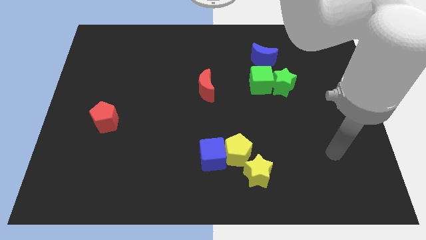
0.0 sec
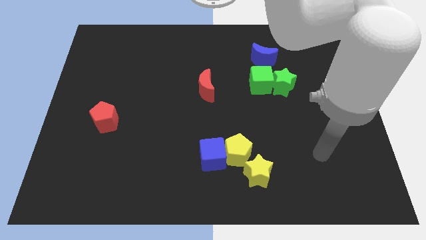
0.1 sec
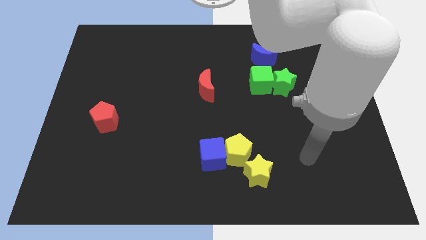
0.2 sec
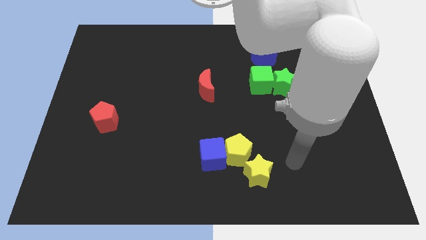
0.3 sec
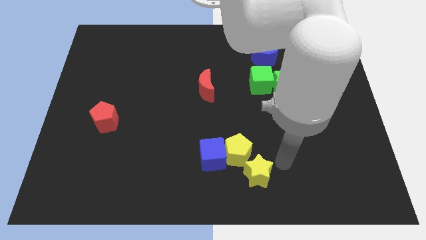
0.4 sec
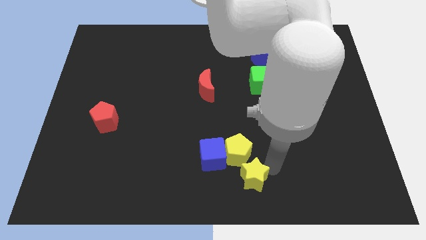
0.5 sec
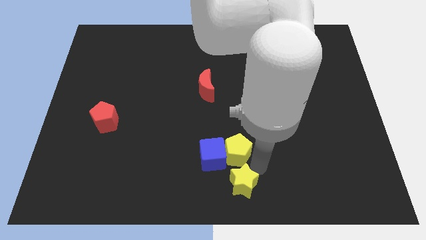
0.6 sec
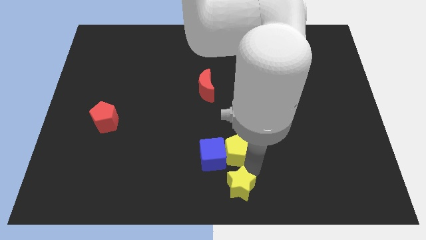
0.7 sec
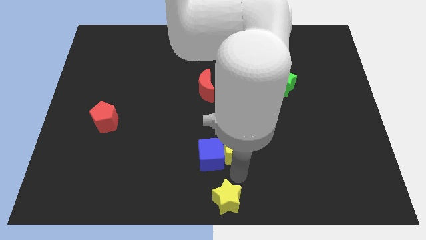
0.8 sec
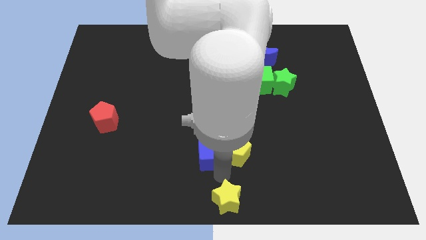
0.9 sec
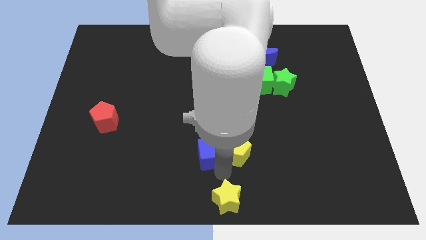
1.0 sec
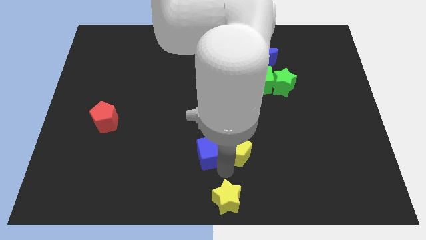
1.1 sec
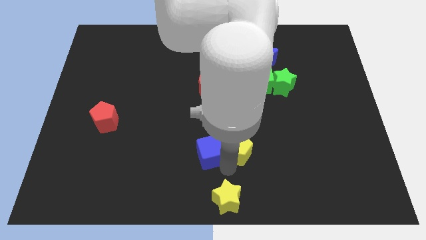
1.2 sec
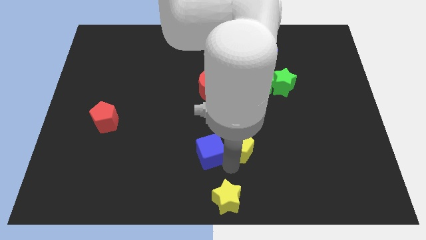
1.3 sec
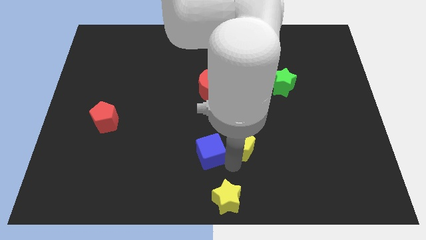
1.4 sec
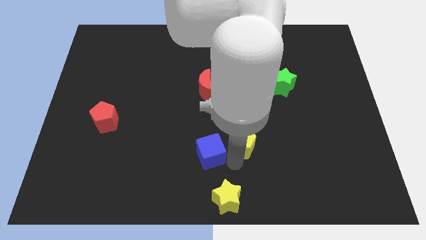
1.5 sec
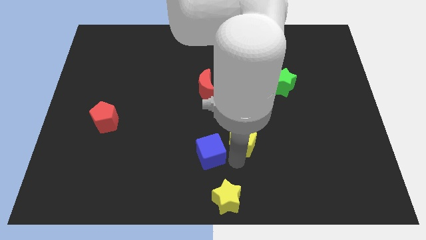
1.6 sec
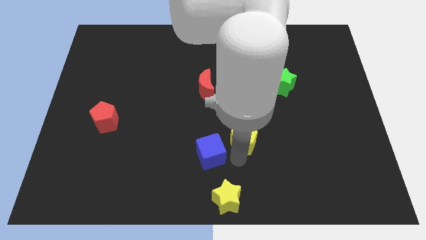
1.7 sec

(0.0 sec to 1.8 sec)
pull the yellow pentagon apart from the blue cube and yellow star

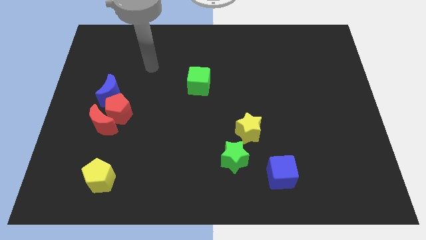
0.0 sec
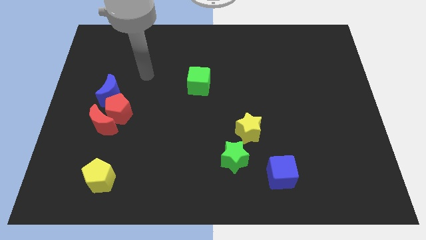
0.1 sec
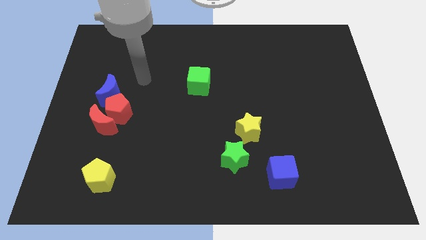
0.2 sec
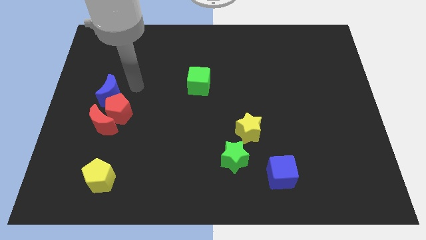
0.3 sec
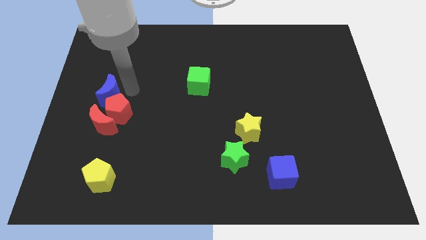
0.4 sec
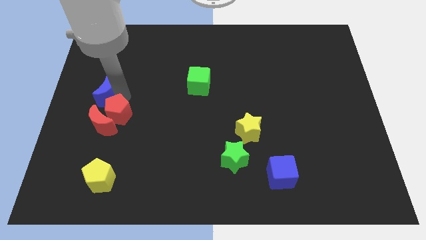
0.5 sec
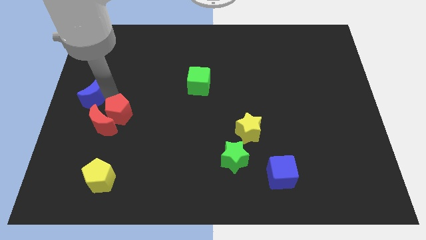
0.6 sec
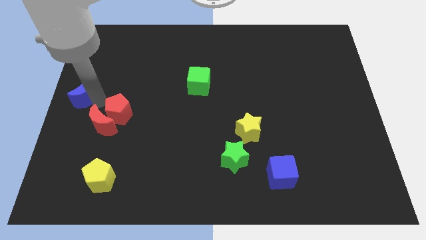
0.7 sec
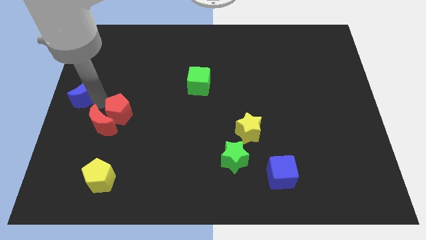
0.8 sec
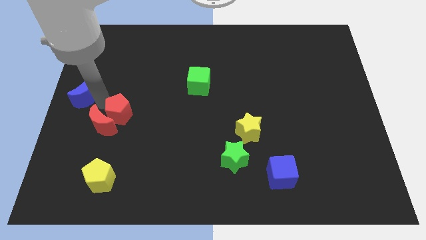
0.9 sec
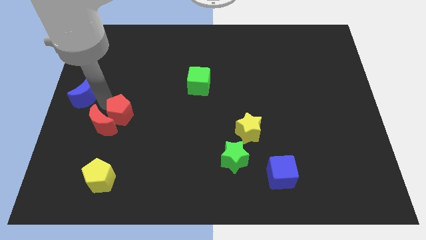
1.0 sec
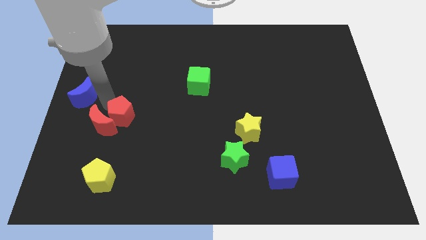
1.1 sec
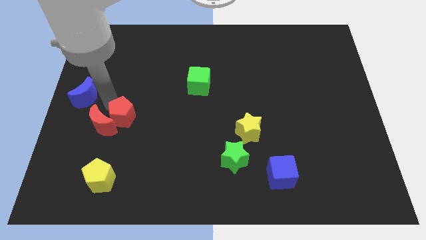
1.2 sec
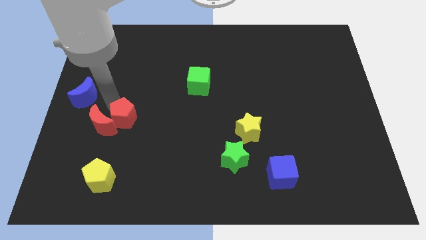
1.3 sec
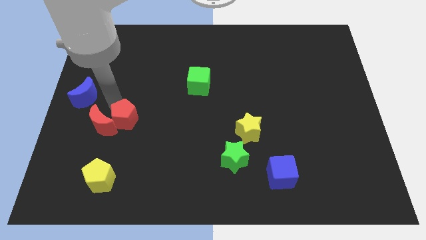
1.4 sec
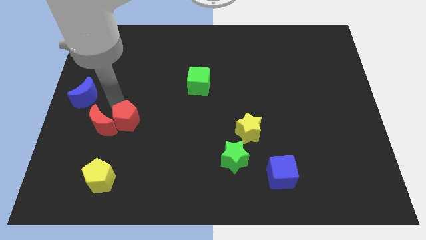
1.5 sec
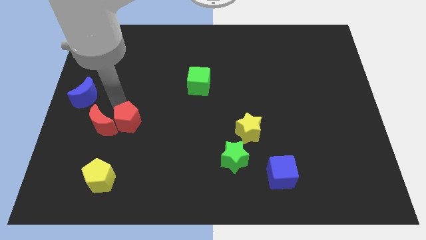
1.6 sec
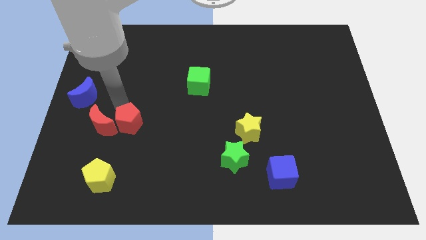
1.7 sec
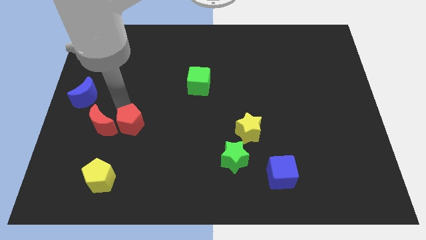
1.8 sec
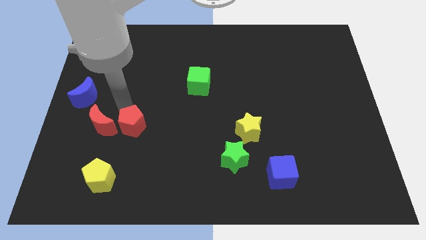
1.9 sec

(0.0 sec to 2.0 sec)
separate the red pentagon from the red moon and blue moon

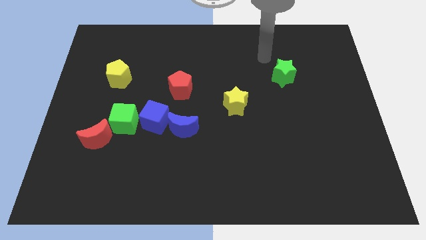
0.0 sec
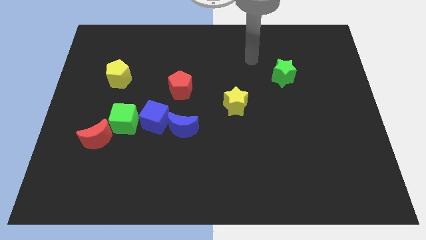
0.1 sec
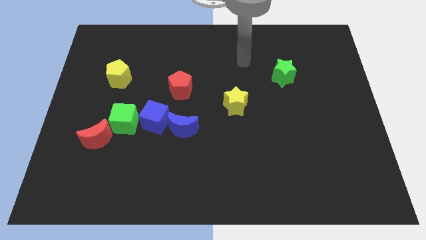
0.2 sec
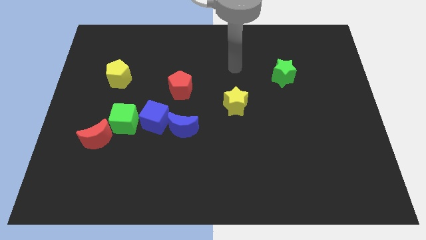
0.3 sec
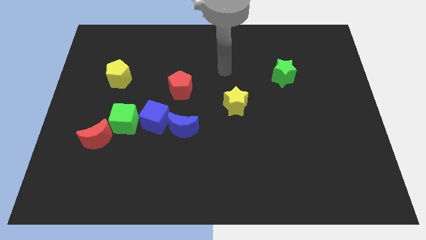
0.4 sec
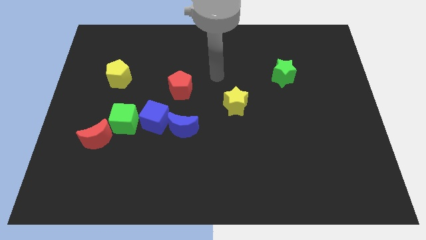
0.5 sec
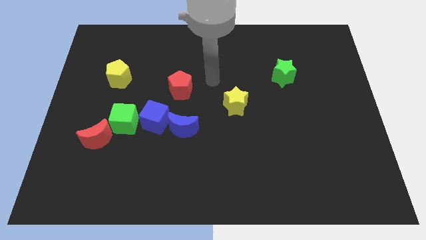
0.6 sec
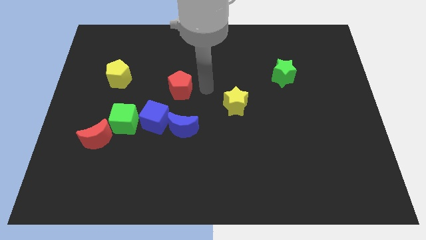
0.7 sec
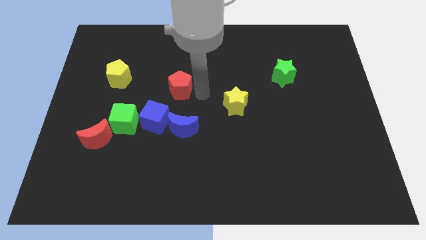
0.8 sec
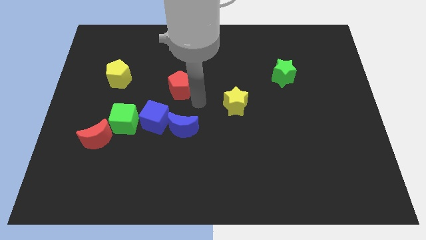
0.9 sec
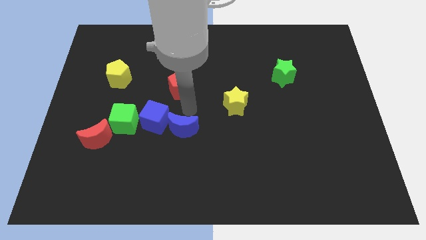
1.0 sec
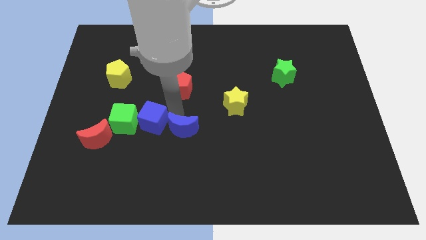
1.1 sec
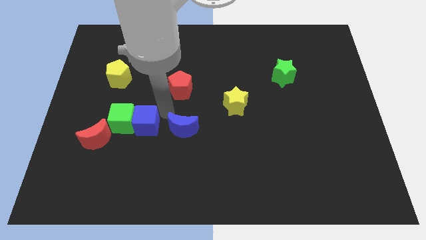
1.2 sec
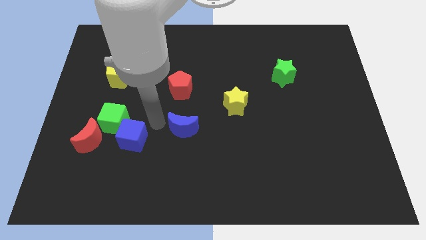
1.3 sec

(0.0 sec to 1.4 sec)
separate the blue moon from the blue cube

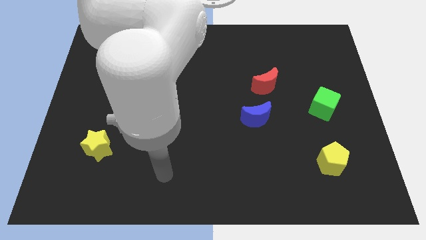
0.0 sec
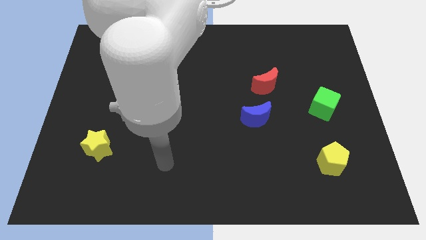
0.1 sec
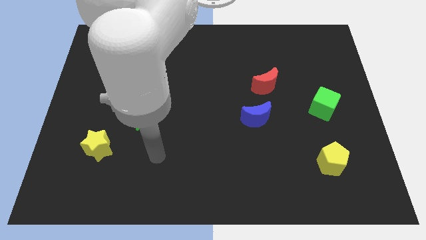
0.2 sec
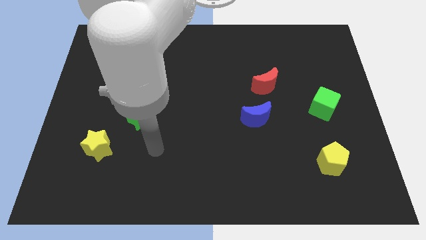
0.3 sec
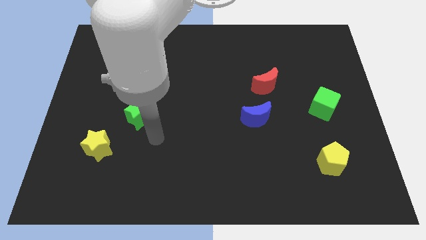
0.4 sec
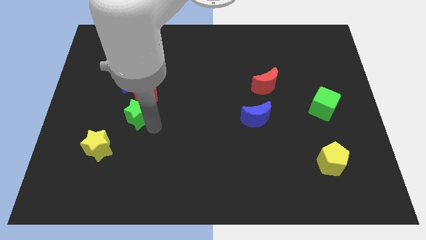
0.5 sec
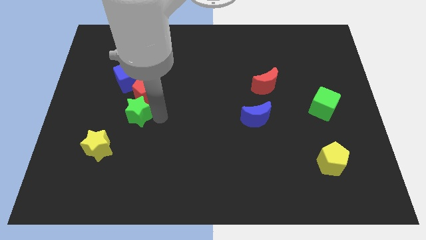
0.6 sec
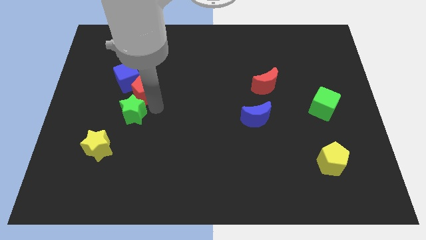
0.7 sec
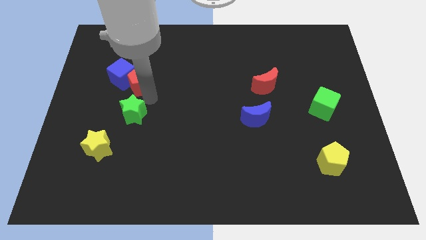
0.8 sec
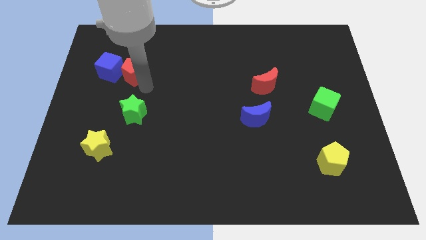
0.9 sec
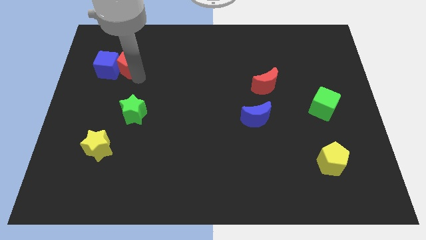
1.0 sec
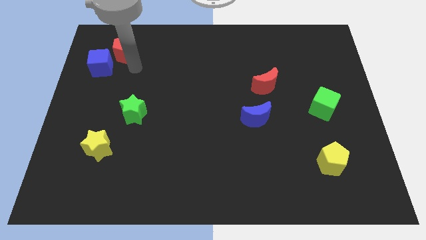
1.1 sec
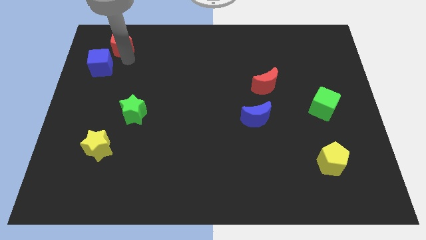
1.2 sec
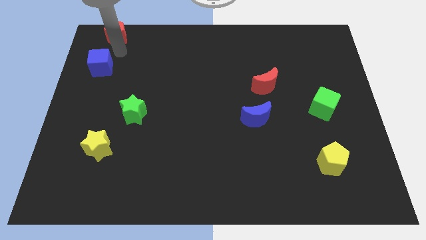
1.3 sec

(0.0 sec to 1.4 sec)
move the blue cube away from the red pentagon

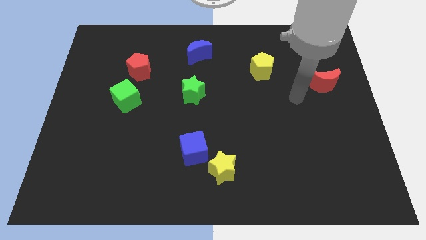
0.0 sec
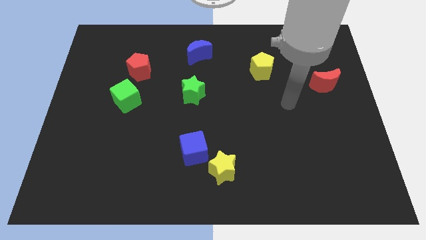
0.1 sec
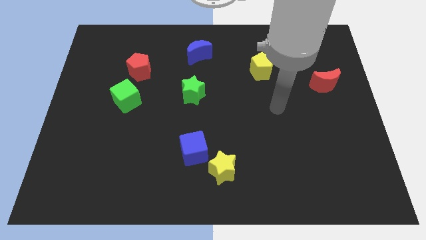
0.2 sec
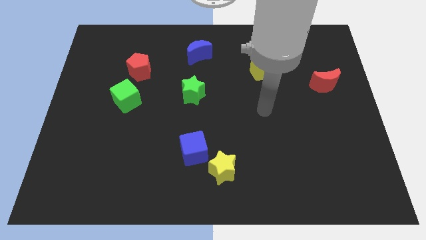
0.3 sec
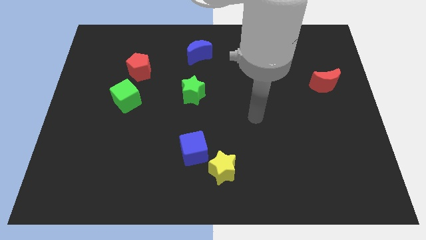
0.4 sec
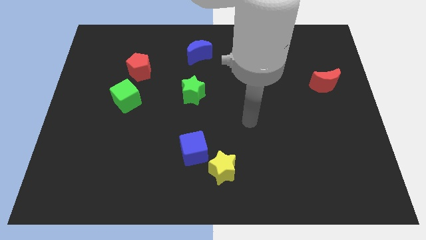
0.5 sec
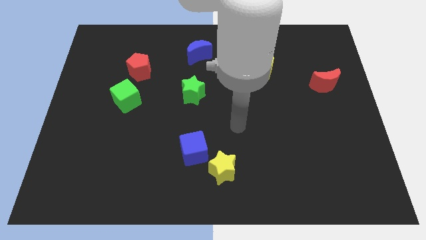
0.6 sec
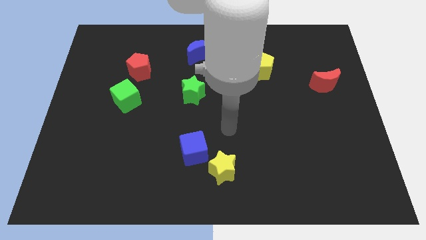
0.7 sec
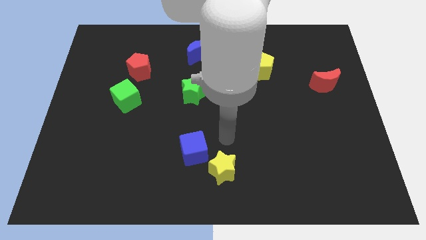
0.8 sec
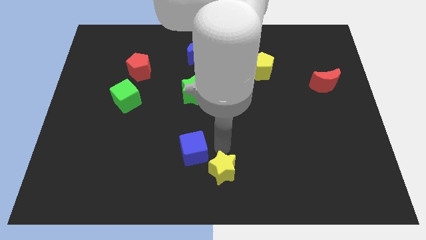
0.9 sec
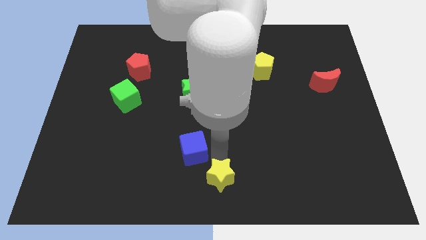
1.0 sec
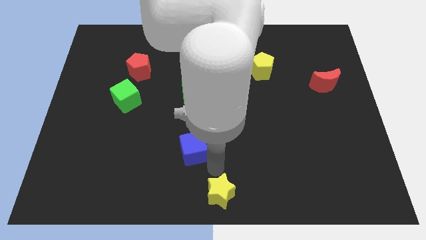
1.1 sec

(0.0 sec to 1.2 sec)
separate the blue cube from the yellow star

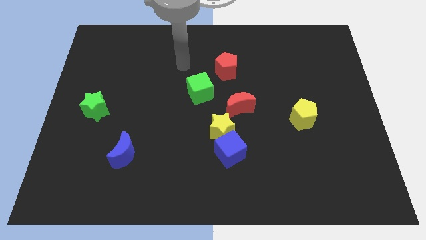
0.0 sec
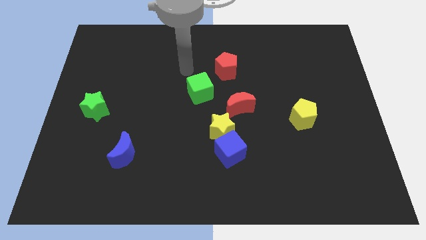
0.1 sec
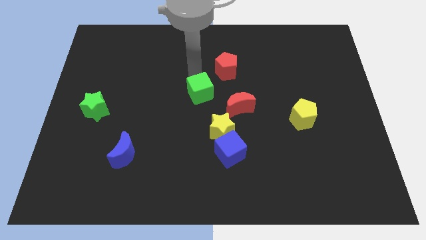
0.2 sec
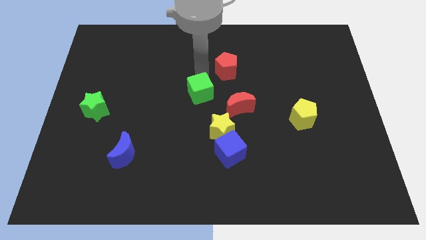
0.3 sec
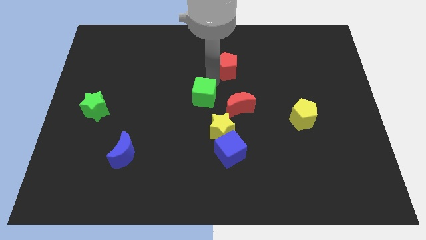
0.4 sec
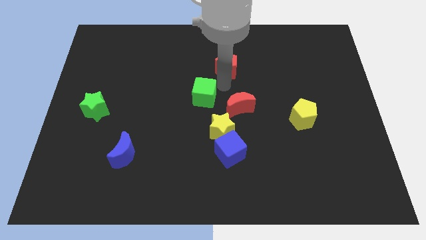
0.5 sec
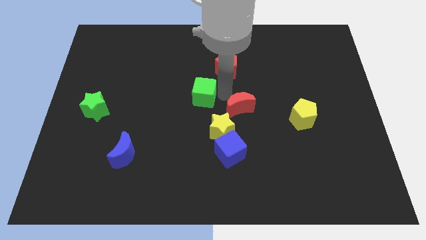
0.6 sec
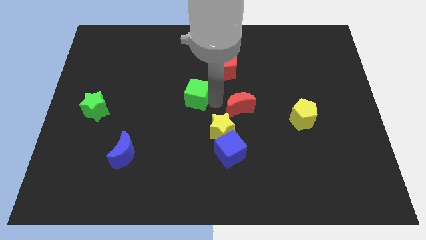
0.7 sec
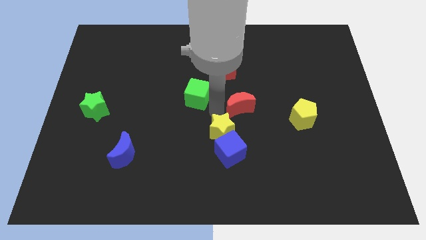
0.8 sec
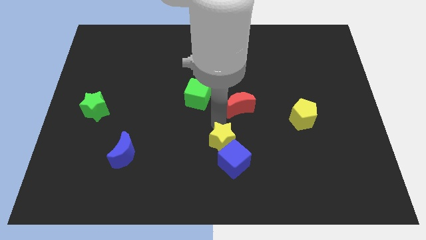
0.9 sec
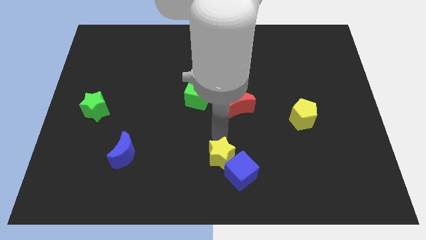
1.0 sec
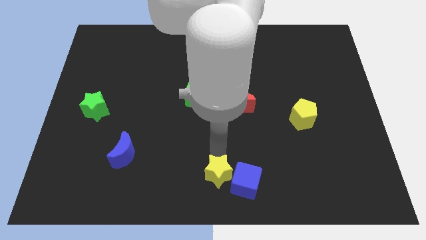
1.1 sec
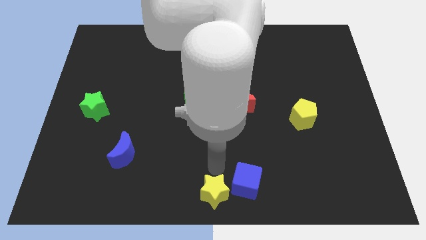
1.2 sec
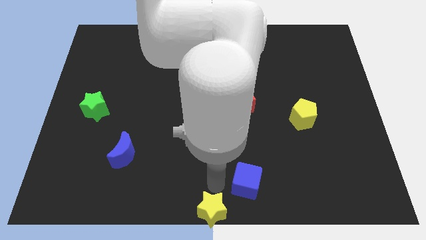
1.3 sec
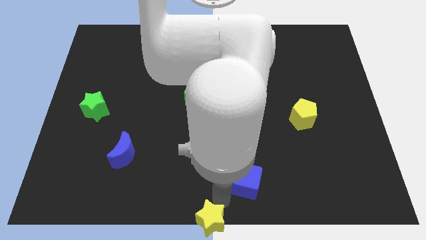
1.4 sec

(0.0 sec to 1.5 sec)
pull the blue cube apart from the yellow star
